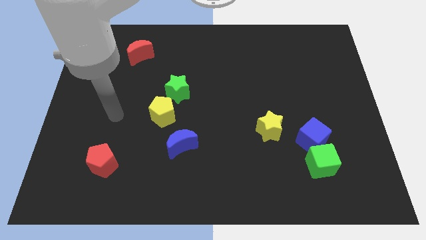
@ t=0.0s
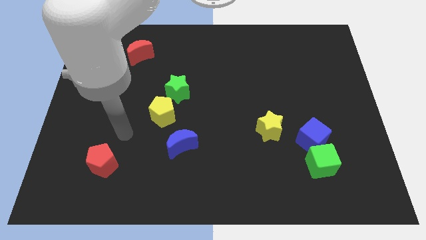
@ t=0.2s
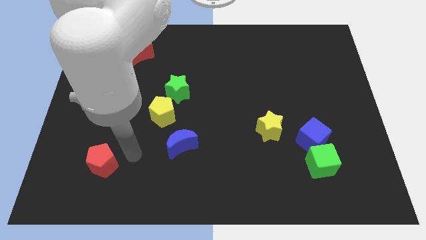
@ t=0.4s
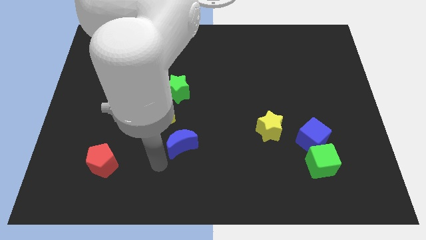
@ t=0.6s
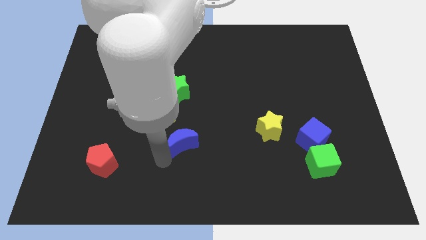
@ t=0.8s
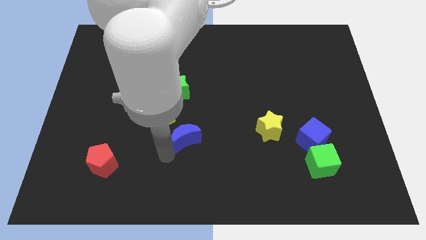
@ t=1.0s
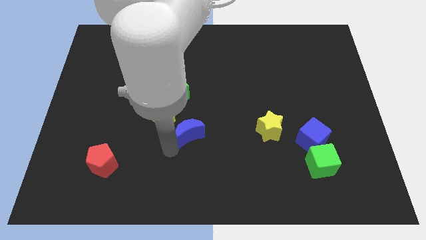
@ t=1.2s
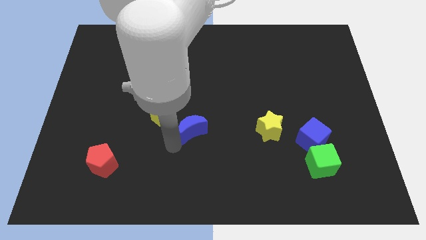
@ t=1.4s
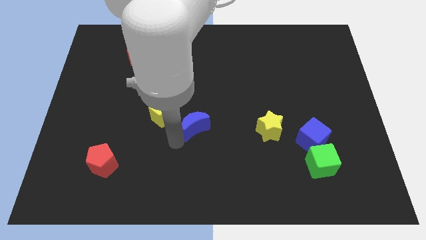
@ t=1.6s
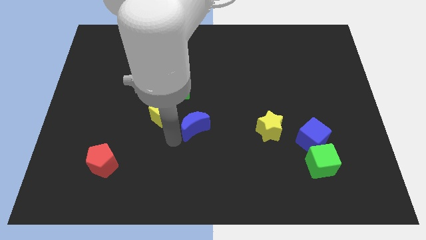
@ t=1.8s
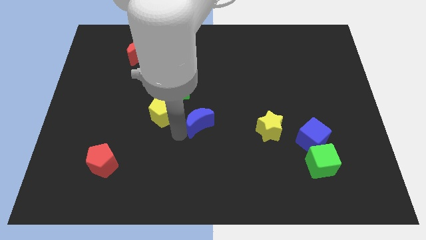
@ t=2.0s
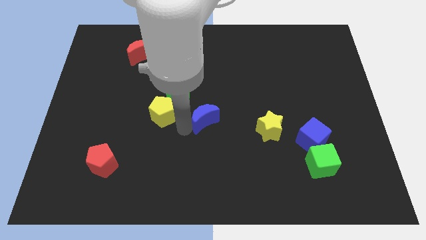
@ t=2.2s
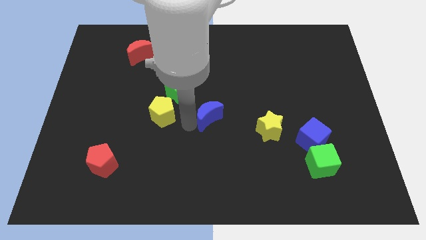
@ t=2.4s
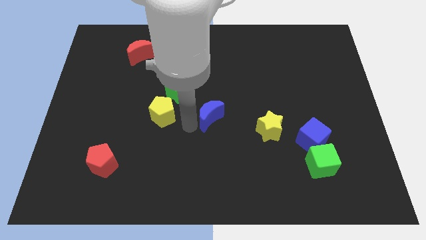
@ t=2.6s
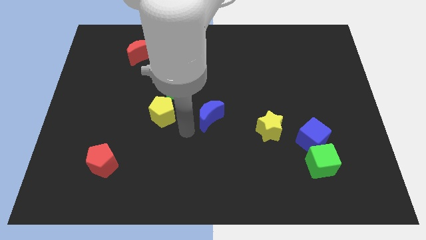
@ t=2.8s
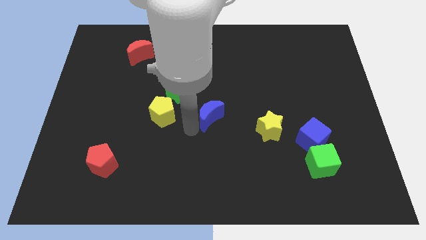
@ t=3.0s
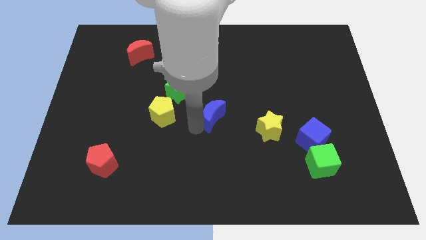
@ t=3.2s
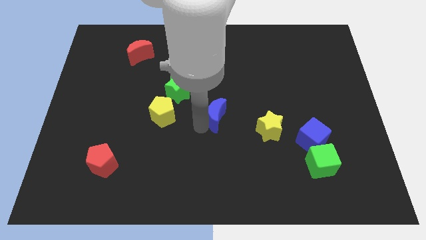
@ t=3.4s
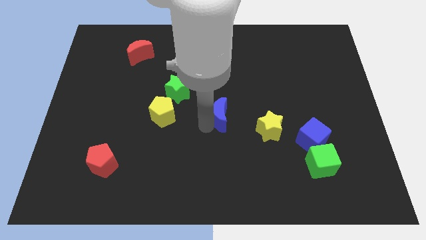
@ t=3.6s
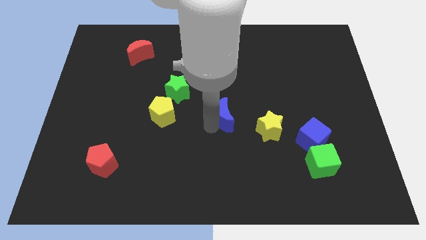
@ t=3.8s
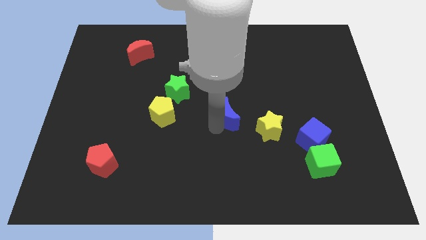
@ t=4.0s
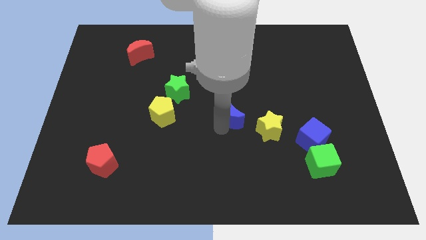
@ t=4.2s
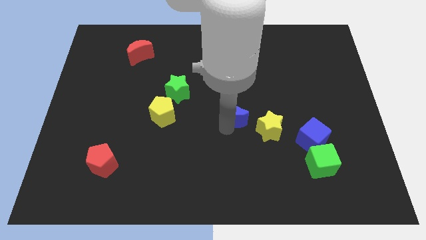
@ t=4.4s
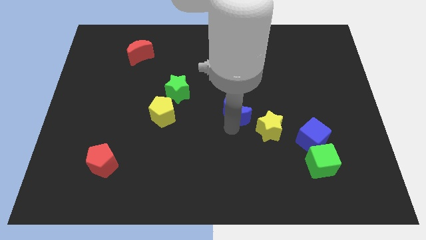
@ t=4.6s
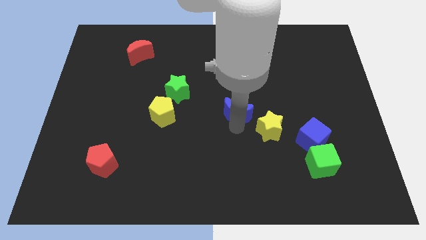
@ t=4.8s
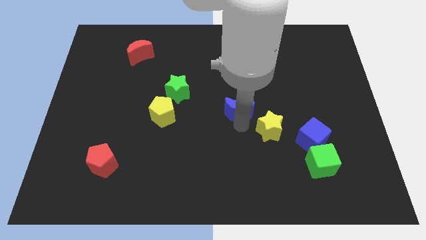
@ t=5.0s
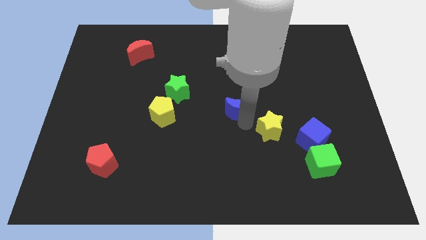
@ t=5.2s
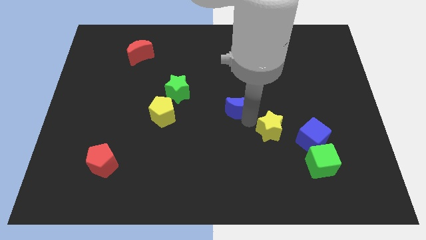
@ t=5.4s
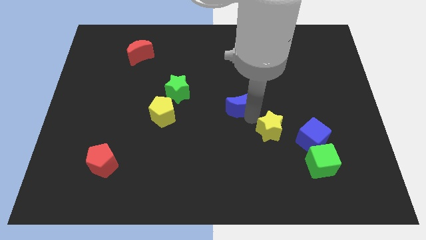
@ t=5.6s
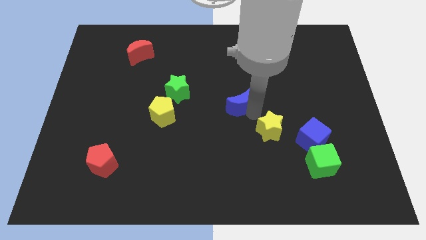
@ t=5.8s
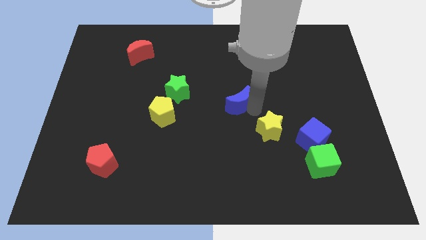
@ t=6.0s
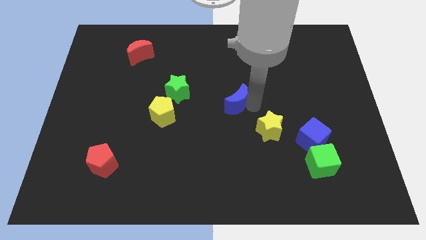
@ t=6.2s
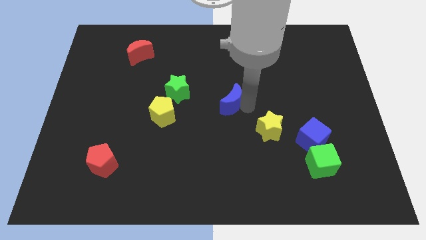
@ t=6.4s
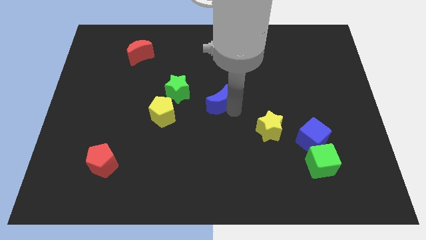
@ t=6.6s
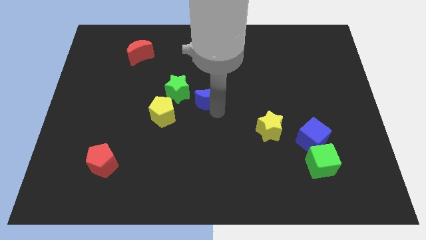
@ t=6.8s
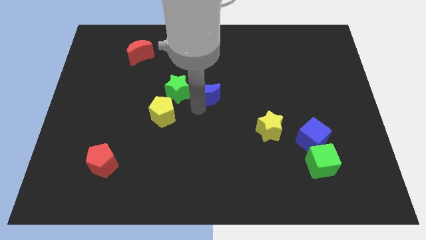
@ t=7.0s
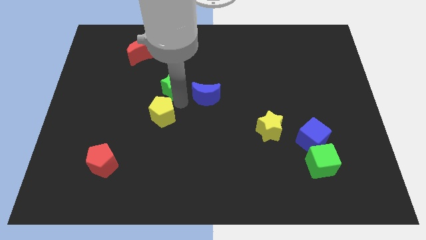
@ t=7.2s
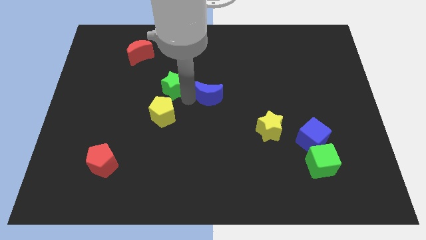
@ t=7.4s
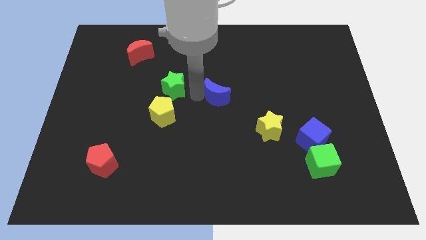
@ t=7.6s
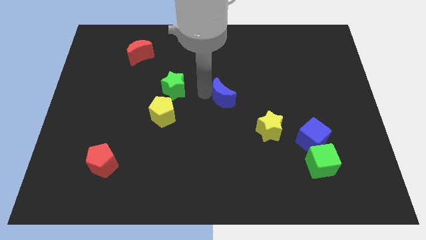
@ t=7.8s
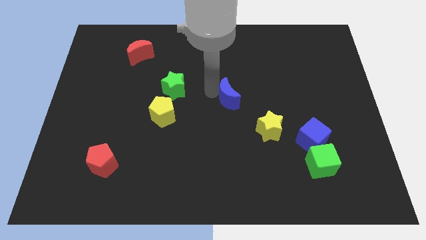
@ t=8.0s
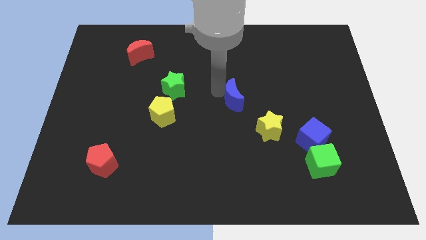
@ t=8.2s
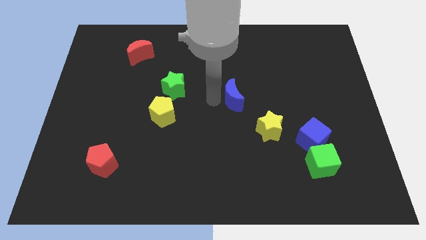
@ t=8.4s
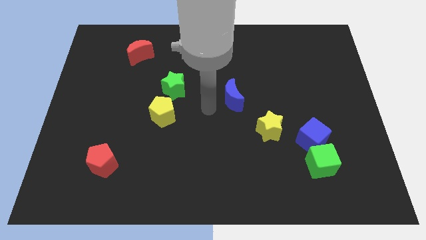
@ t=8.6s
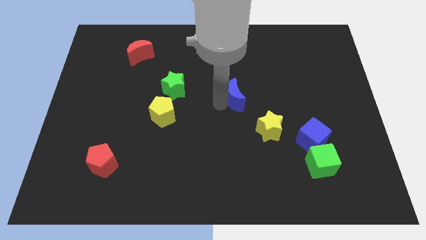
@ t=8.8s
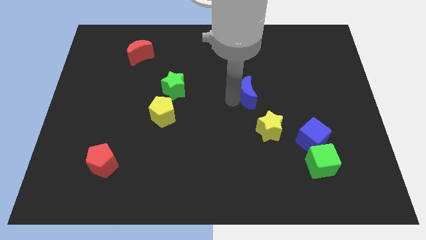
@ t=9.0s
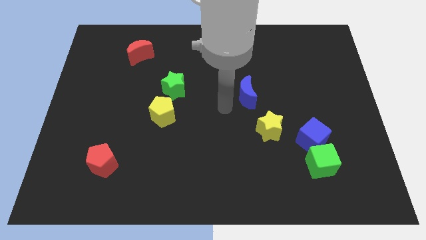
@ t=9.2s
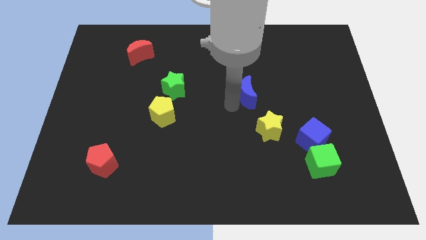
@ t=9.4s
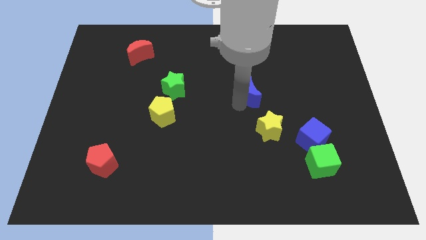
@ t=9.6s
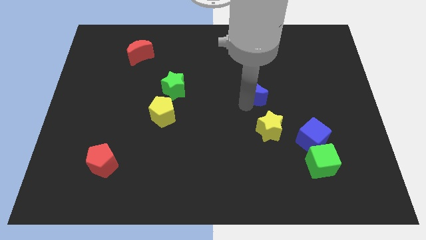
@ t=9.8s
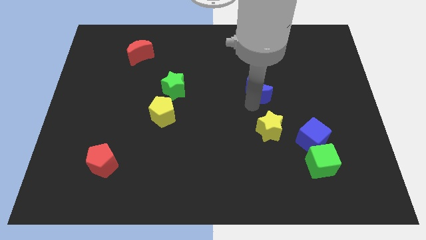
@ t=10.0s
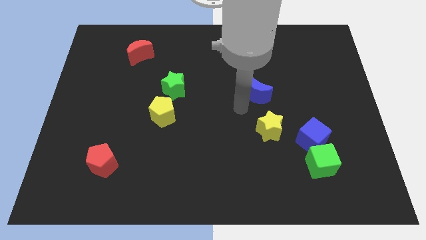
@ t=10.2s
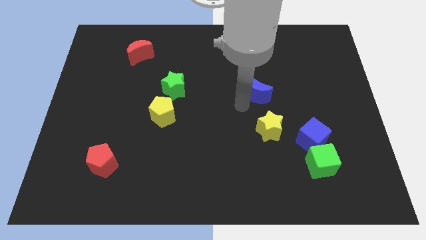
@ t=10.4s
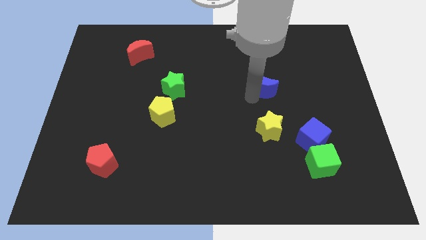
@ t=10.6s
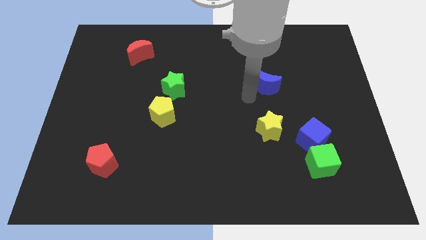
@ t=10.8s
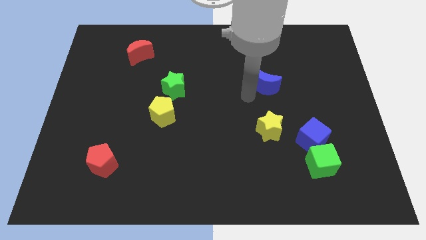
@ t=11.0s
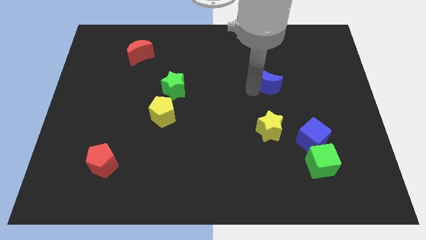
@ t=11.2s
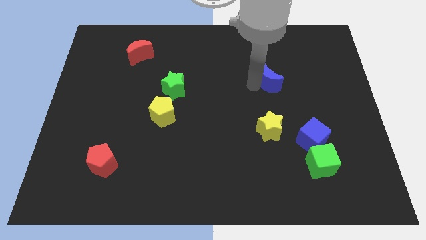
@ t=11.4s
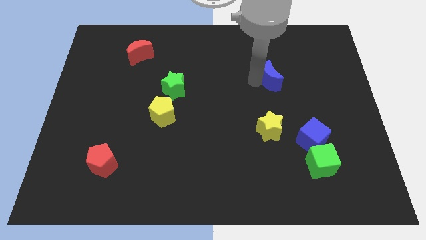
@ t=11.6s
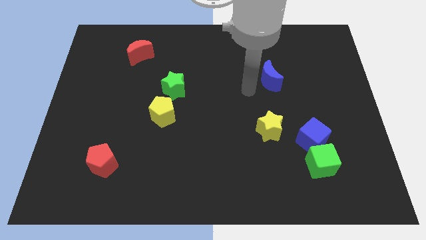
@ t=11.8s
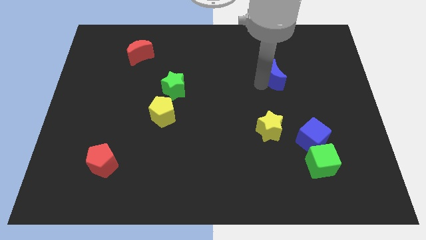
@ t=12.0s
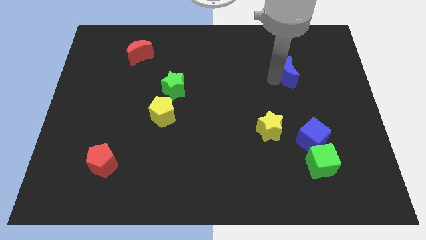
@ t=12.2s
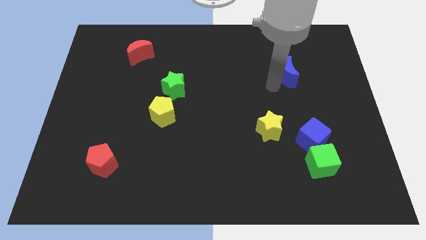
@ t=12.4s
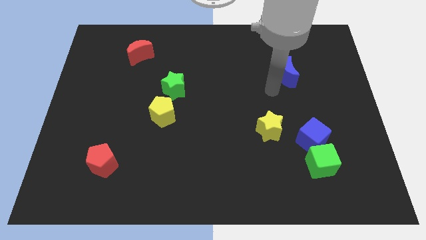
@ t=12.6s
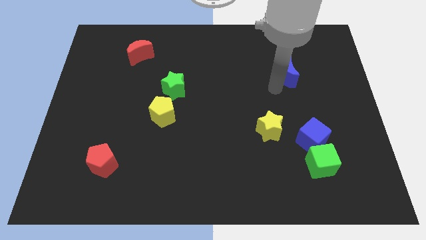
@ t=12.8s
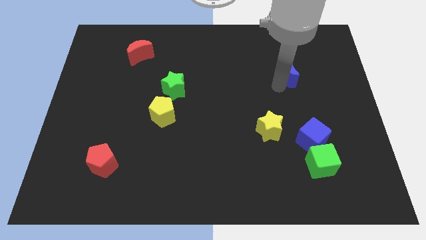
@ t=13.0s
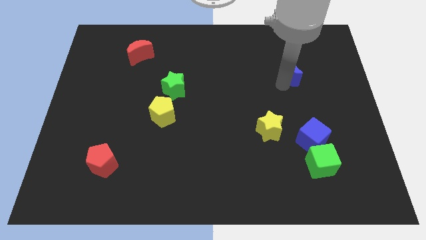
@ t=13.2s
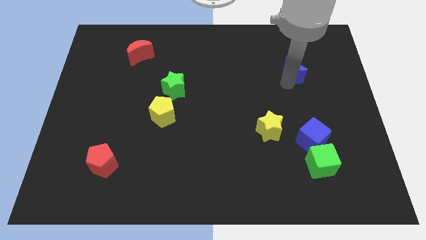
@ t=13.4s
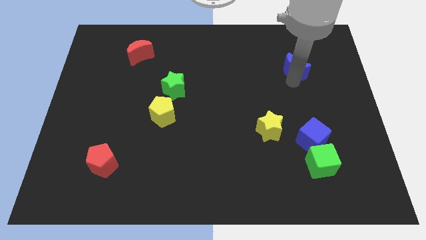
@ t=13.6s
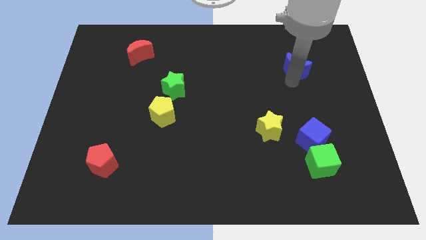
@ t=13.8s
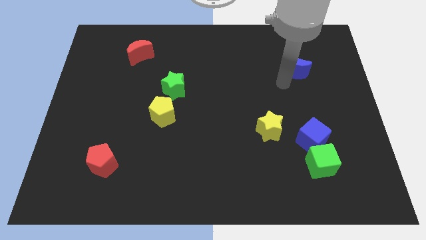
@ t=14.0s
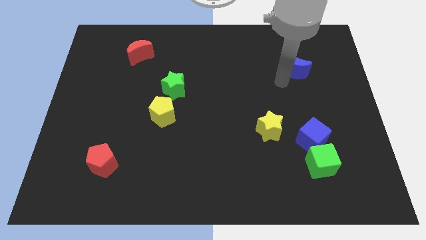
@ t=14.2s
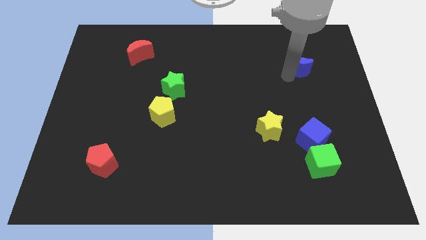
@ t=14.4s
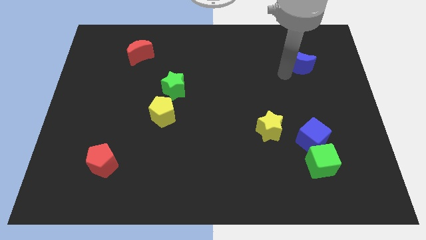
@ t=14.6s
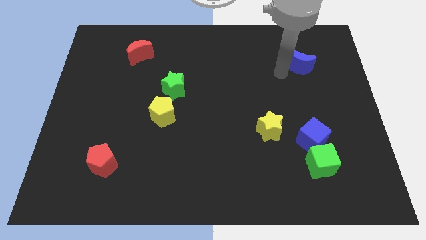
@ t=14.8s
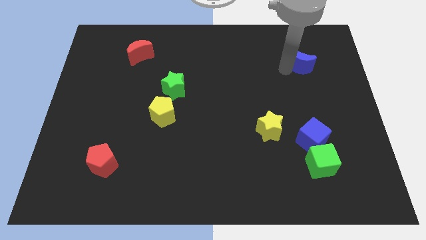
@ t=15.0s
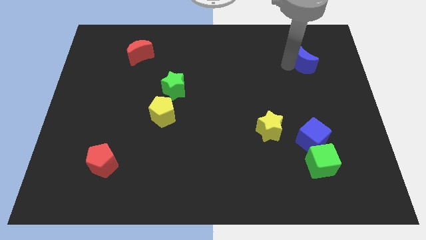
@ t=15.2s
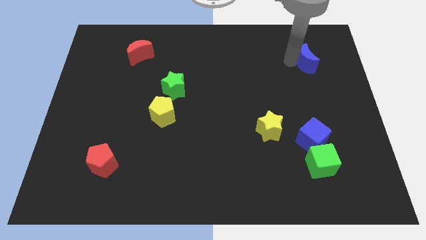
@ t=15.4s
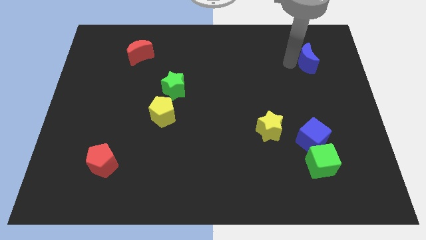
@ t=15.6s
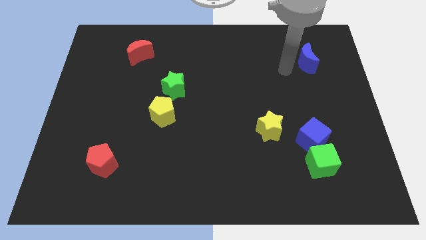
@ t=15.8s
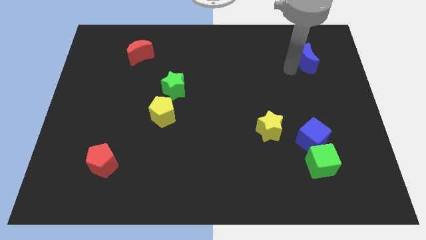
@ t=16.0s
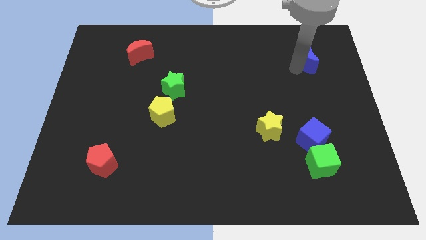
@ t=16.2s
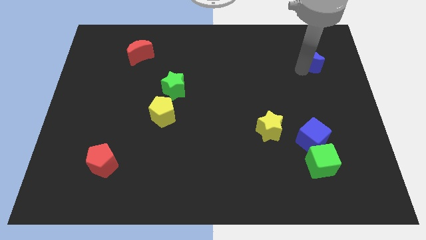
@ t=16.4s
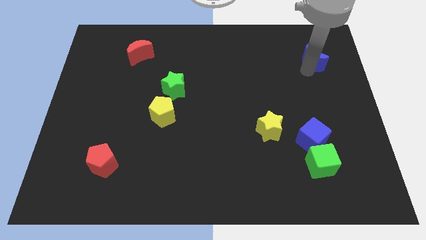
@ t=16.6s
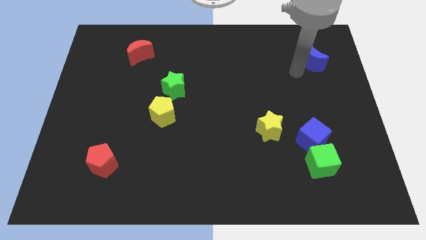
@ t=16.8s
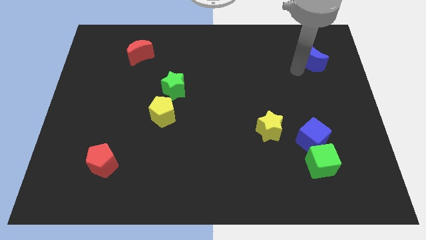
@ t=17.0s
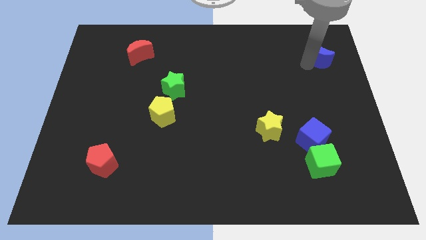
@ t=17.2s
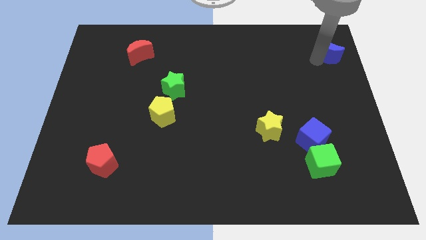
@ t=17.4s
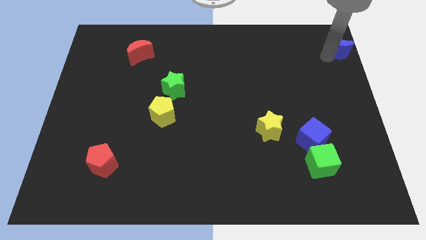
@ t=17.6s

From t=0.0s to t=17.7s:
move the blue moon to the top right
